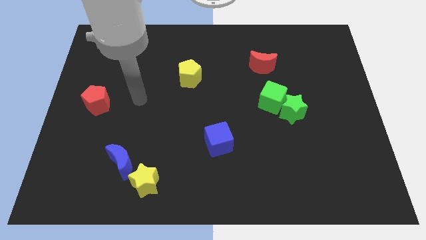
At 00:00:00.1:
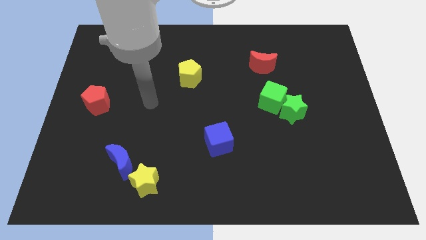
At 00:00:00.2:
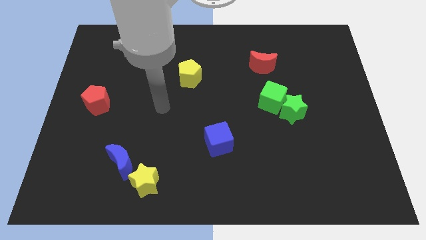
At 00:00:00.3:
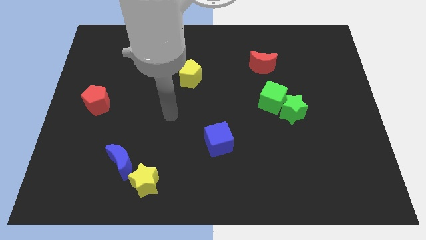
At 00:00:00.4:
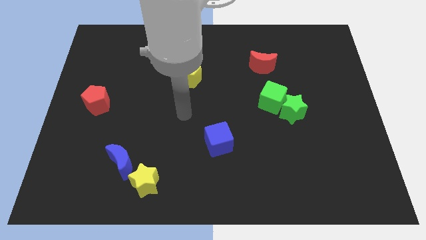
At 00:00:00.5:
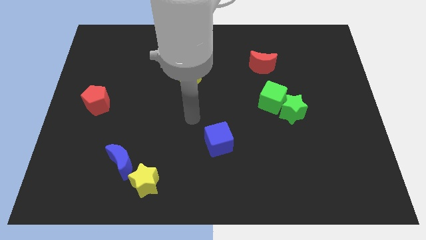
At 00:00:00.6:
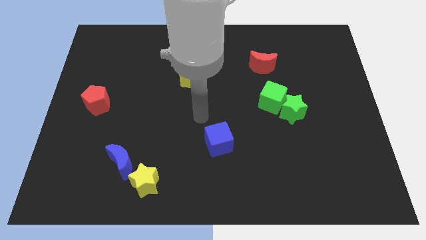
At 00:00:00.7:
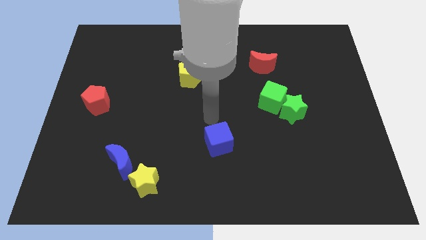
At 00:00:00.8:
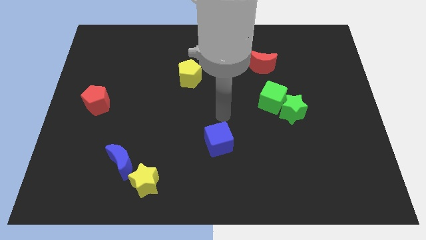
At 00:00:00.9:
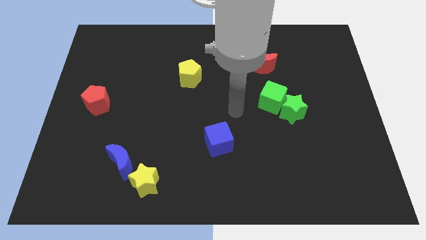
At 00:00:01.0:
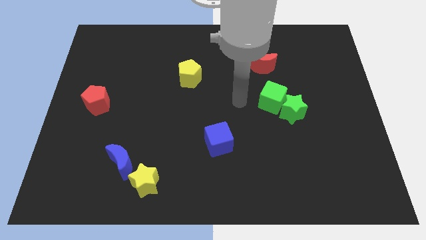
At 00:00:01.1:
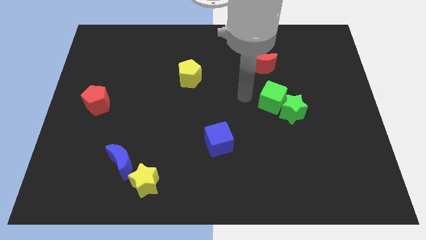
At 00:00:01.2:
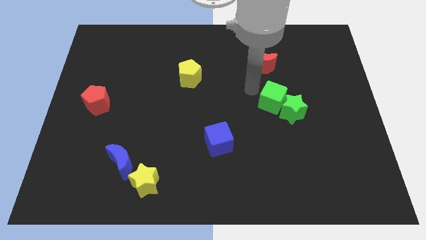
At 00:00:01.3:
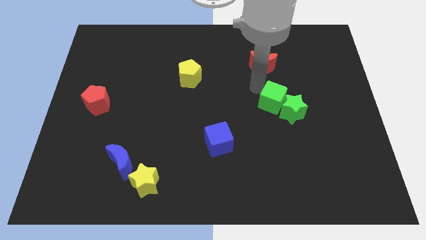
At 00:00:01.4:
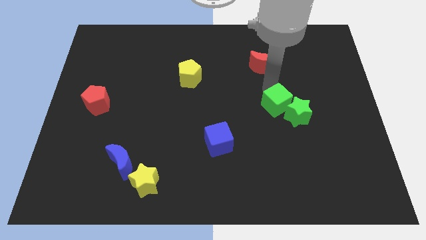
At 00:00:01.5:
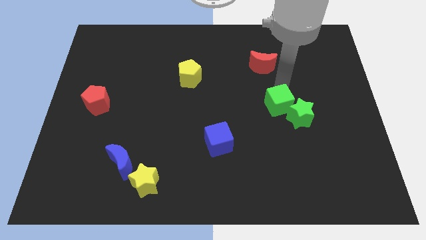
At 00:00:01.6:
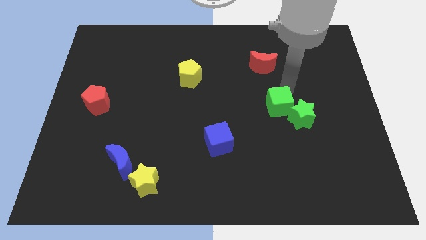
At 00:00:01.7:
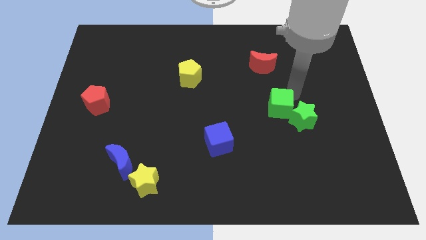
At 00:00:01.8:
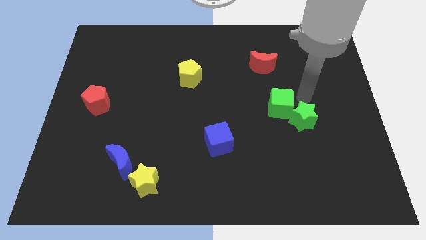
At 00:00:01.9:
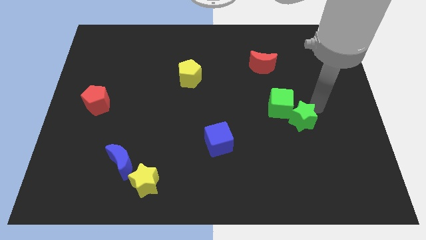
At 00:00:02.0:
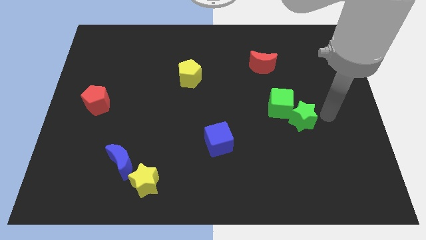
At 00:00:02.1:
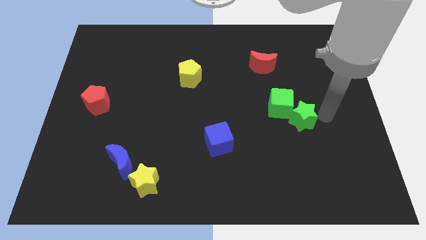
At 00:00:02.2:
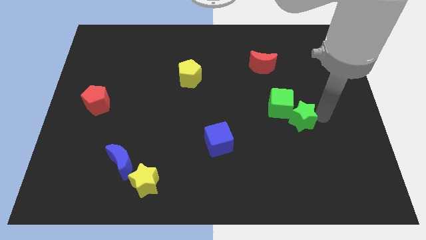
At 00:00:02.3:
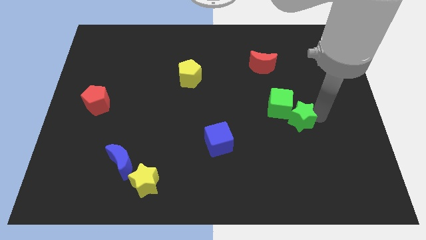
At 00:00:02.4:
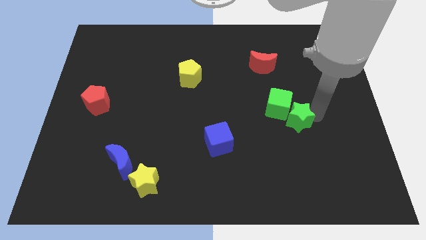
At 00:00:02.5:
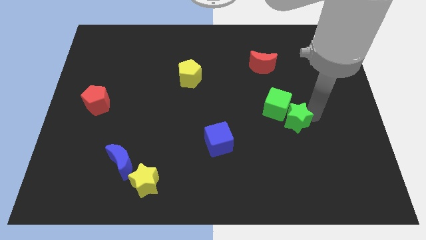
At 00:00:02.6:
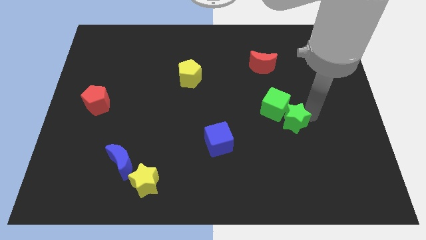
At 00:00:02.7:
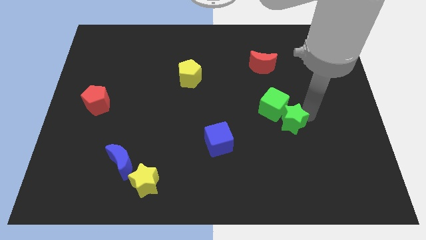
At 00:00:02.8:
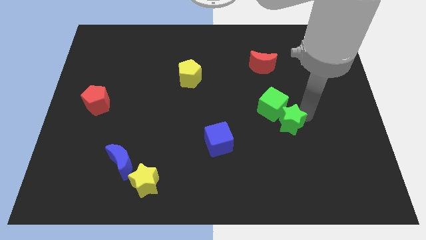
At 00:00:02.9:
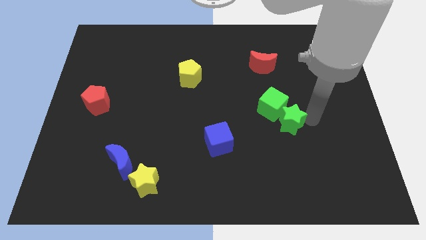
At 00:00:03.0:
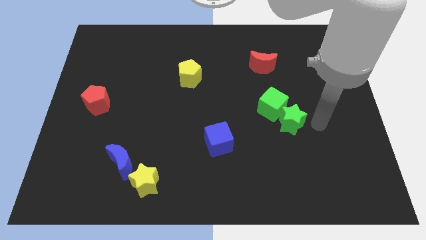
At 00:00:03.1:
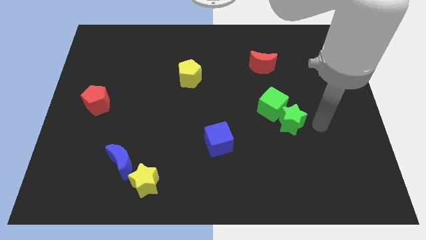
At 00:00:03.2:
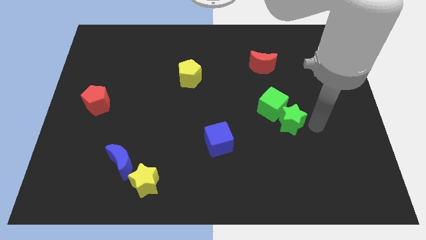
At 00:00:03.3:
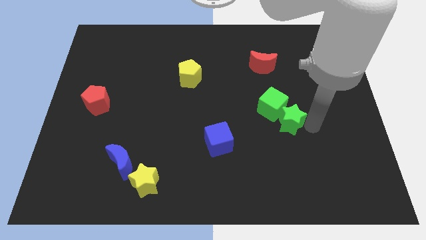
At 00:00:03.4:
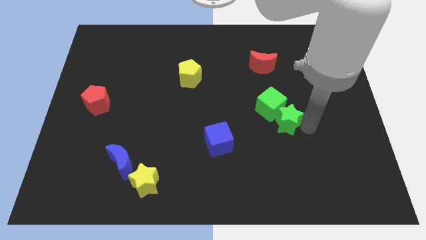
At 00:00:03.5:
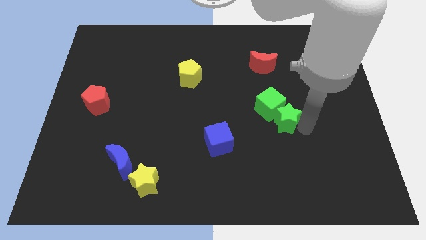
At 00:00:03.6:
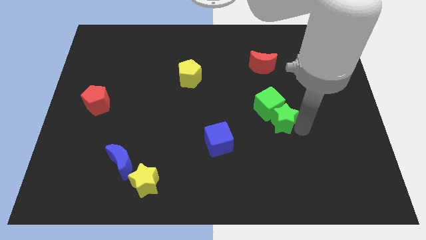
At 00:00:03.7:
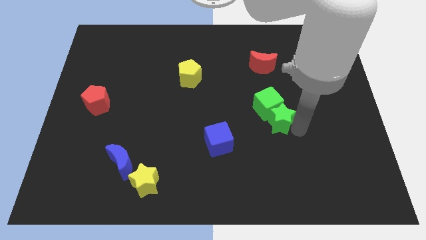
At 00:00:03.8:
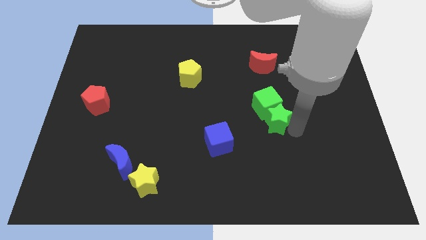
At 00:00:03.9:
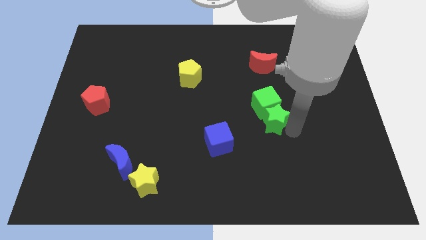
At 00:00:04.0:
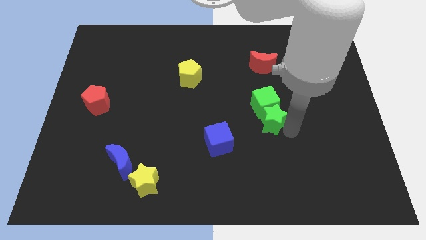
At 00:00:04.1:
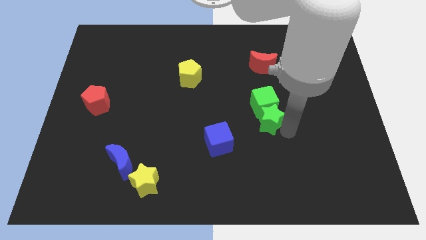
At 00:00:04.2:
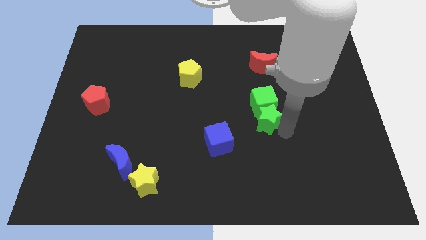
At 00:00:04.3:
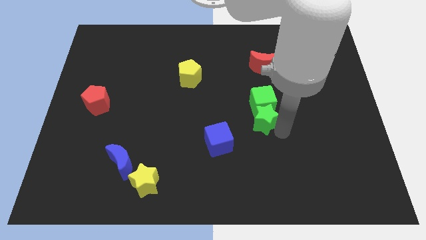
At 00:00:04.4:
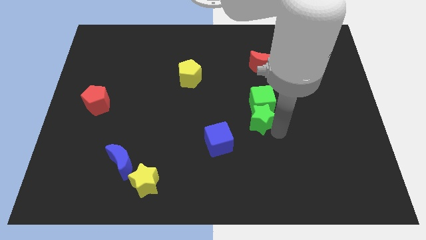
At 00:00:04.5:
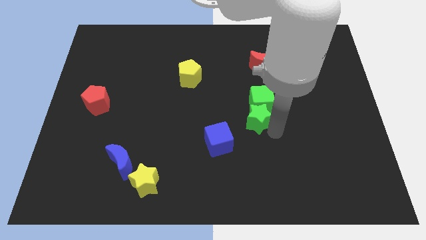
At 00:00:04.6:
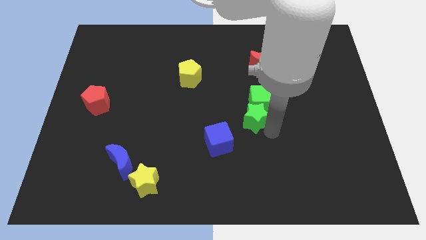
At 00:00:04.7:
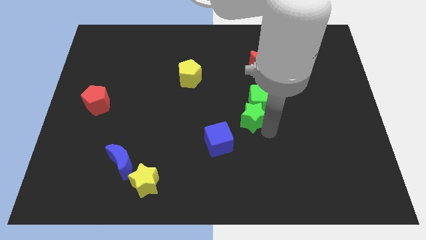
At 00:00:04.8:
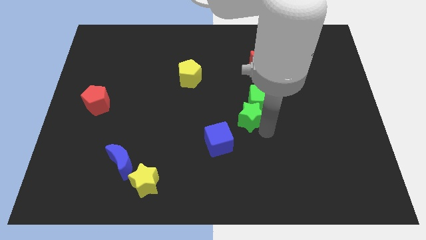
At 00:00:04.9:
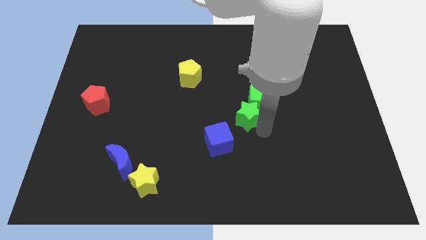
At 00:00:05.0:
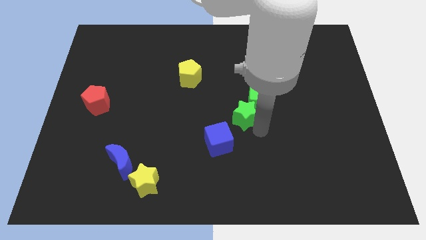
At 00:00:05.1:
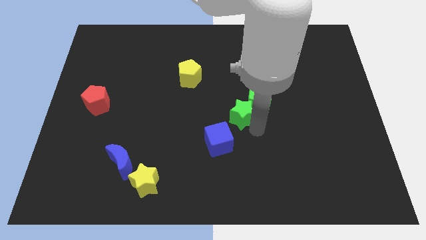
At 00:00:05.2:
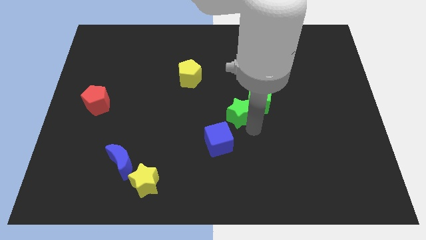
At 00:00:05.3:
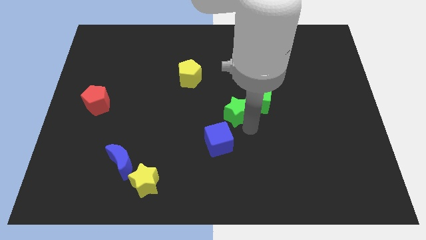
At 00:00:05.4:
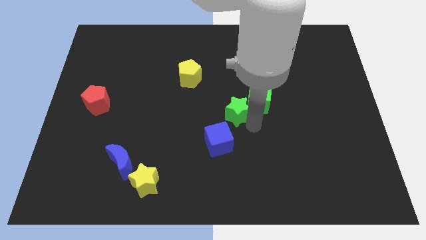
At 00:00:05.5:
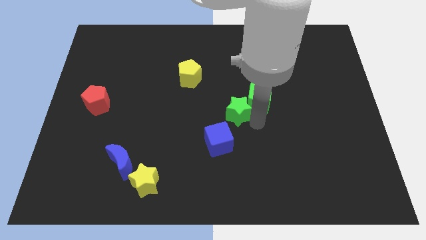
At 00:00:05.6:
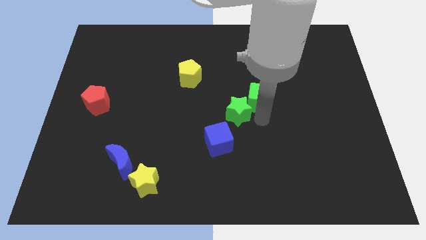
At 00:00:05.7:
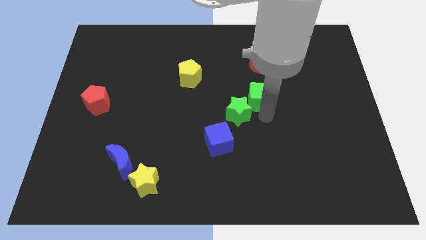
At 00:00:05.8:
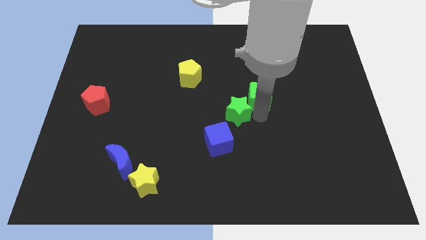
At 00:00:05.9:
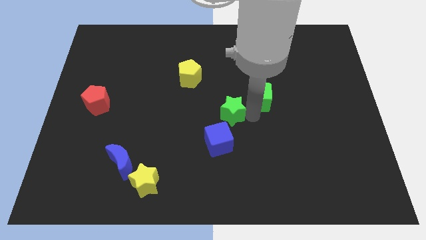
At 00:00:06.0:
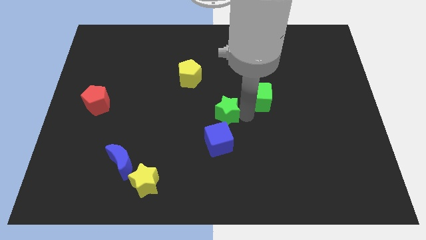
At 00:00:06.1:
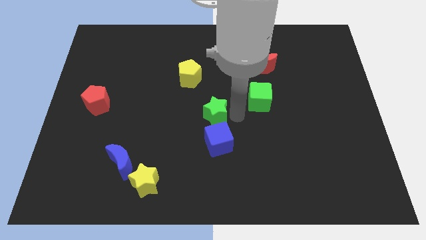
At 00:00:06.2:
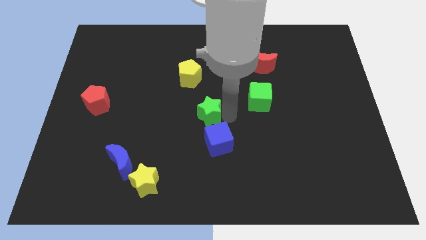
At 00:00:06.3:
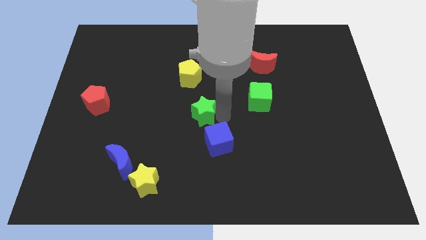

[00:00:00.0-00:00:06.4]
slide the green star left

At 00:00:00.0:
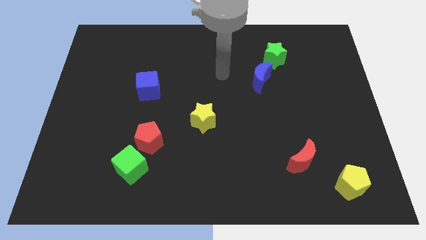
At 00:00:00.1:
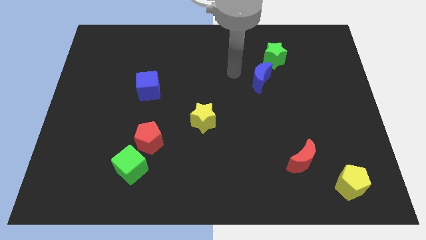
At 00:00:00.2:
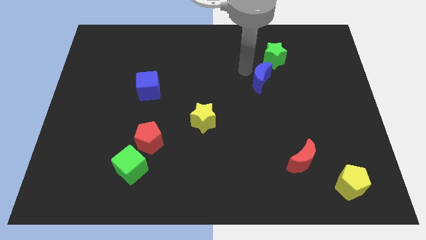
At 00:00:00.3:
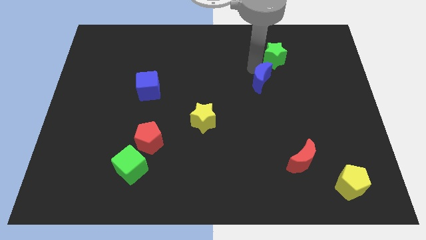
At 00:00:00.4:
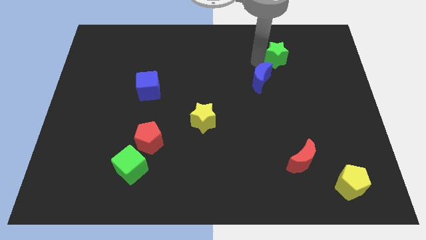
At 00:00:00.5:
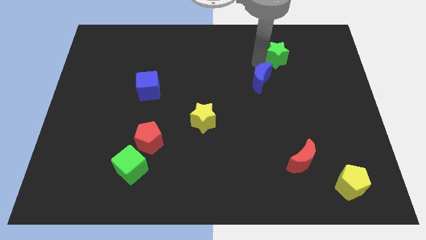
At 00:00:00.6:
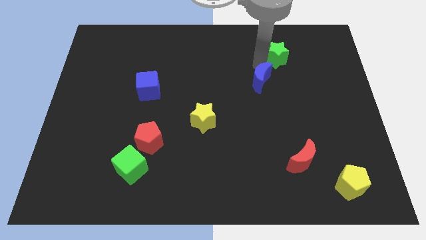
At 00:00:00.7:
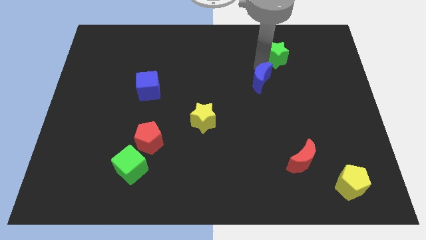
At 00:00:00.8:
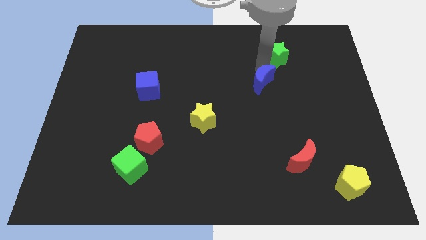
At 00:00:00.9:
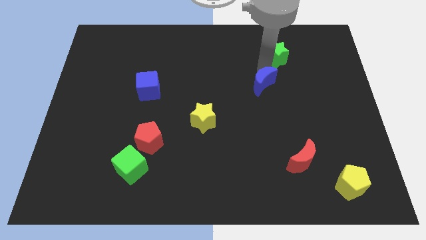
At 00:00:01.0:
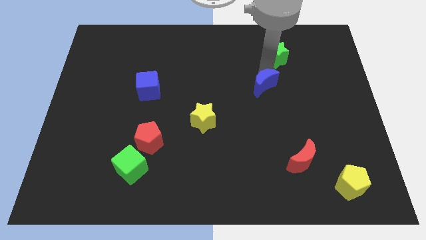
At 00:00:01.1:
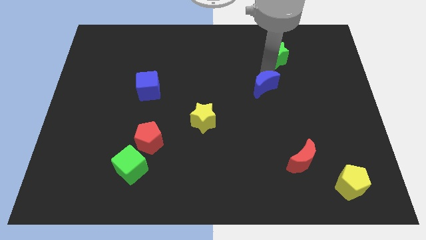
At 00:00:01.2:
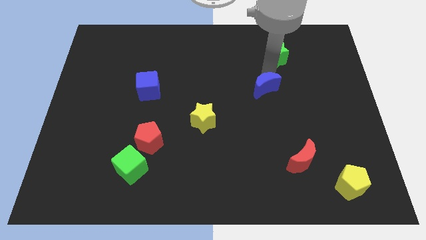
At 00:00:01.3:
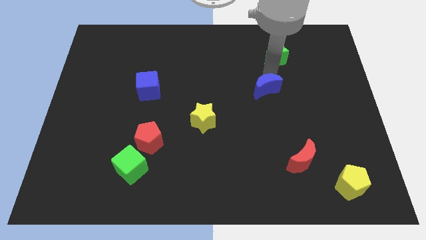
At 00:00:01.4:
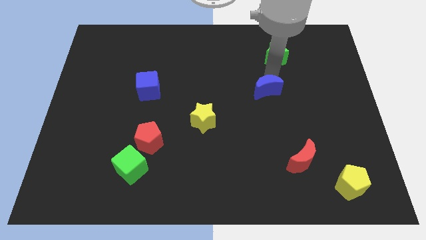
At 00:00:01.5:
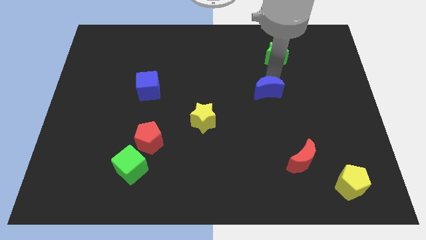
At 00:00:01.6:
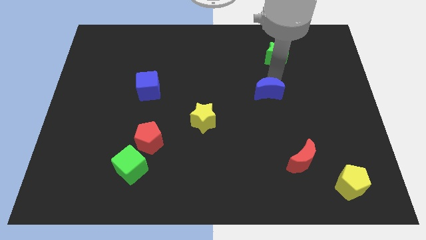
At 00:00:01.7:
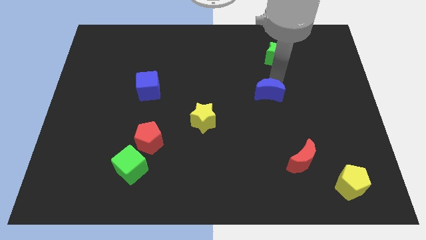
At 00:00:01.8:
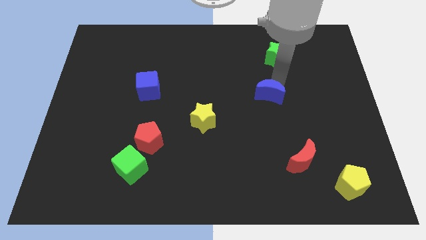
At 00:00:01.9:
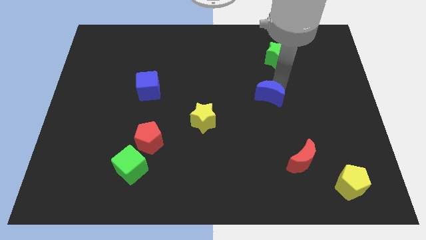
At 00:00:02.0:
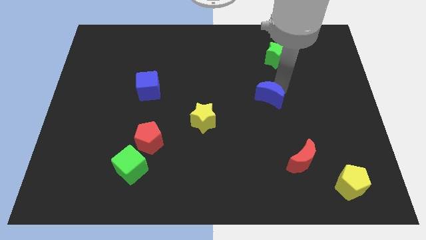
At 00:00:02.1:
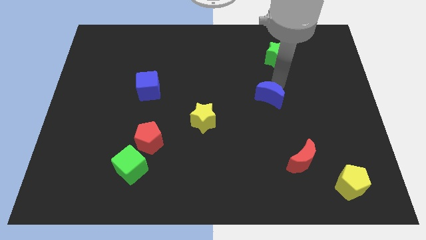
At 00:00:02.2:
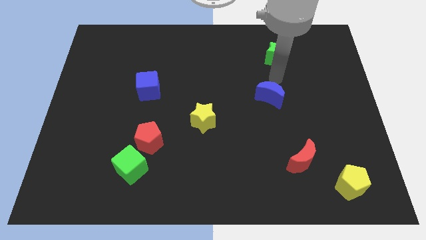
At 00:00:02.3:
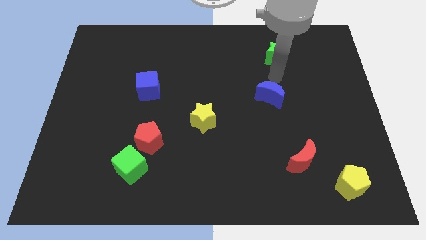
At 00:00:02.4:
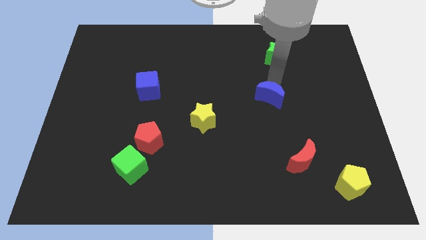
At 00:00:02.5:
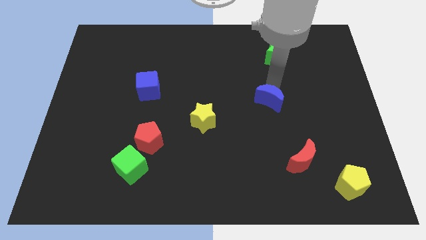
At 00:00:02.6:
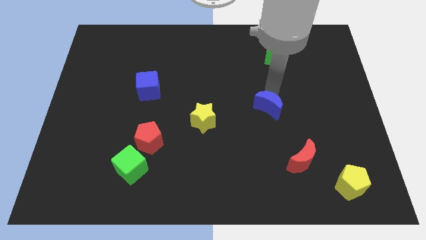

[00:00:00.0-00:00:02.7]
slightly slide the blue moon downwards
